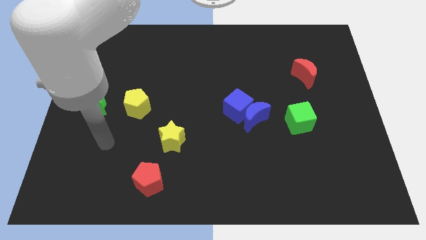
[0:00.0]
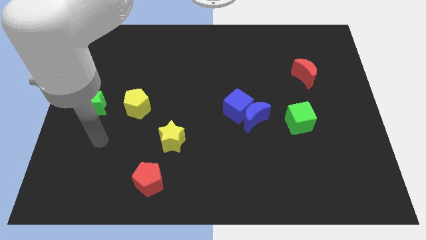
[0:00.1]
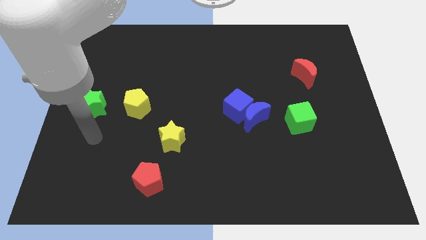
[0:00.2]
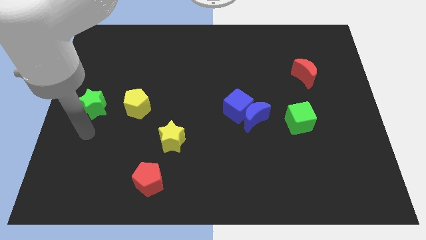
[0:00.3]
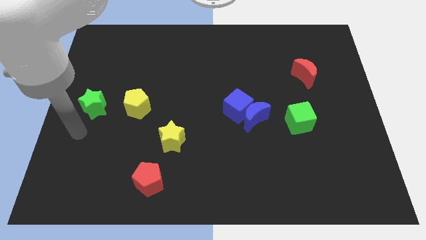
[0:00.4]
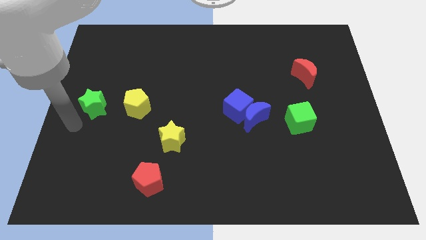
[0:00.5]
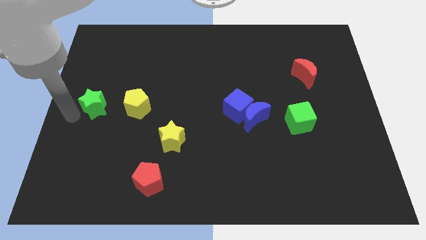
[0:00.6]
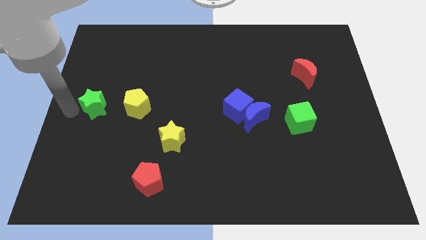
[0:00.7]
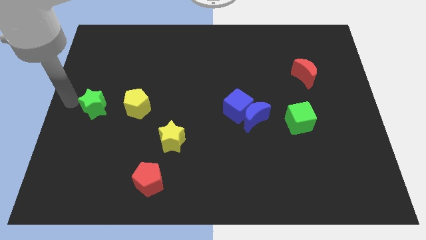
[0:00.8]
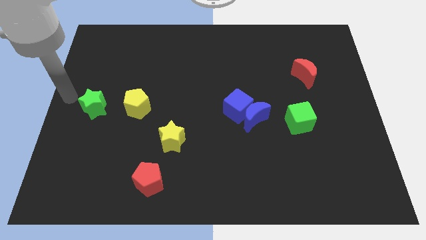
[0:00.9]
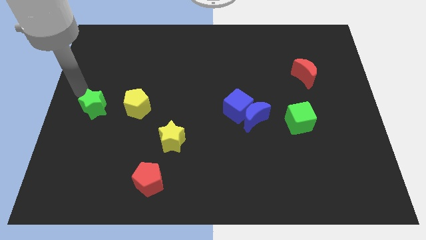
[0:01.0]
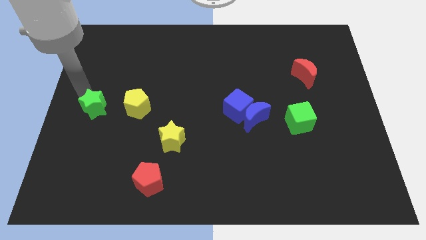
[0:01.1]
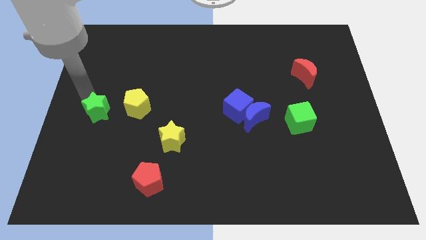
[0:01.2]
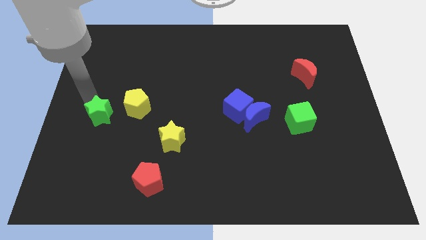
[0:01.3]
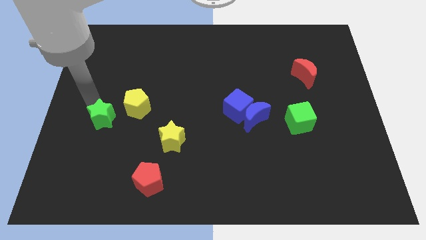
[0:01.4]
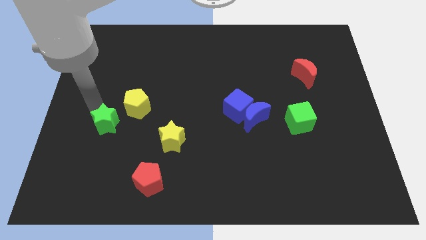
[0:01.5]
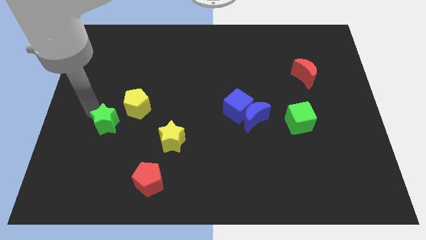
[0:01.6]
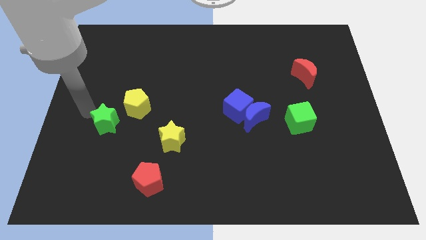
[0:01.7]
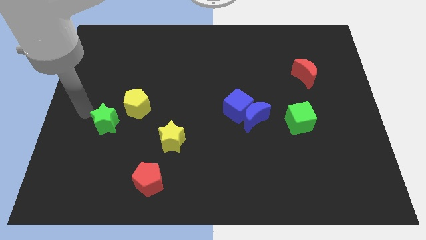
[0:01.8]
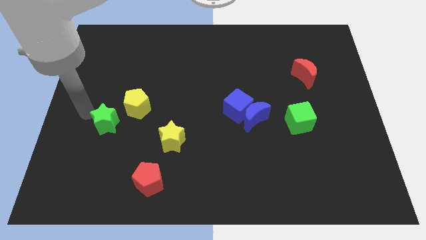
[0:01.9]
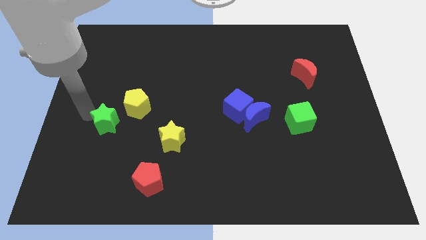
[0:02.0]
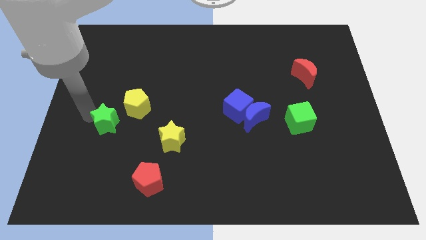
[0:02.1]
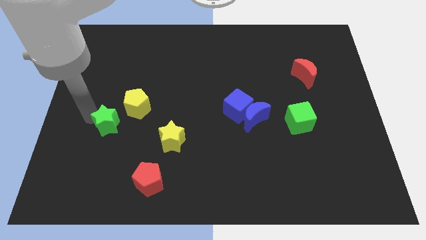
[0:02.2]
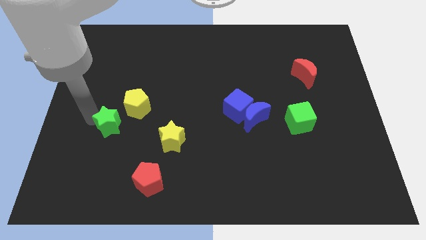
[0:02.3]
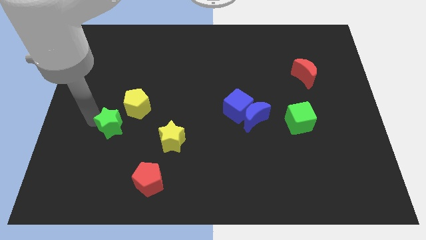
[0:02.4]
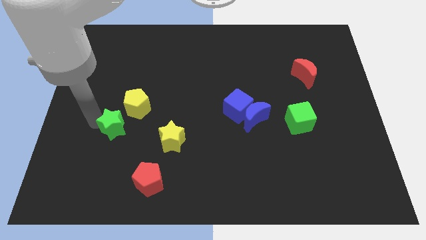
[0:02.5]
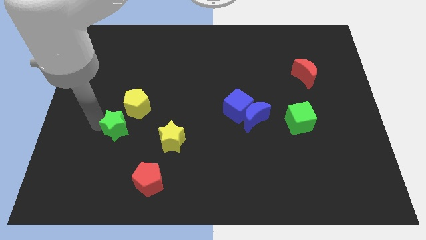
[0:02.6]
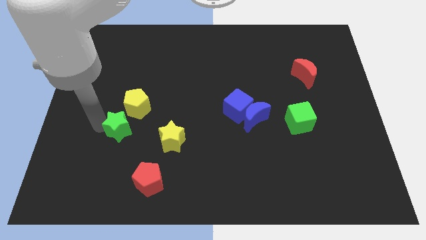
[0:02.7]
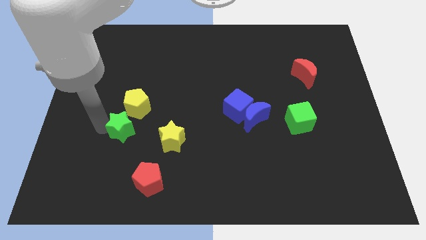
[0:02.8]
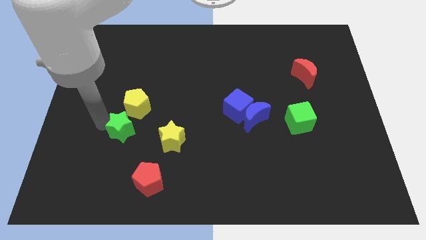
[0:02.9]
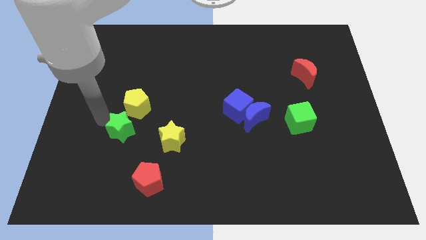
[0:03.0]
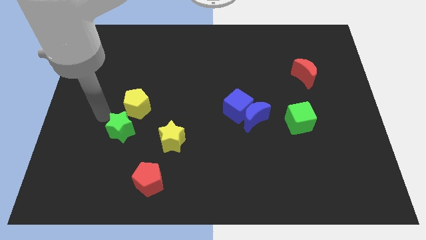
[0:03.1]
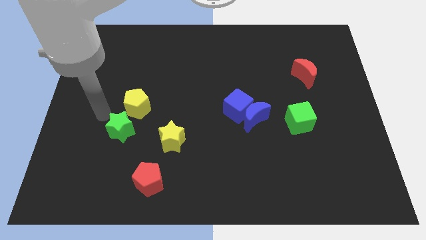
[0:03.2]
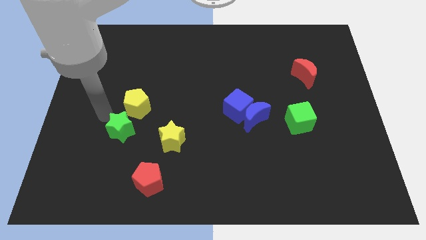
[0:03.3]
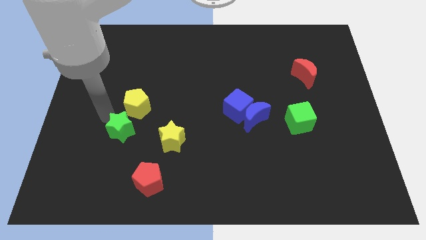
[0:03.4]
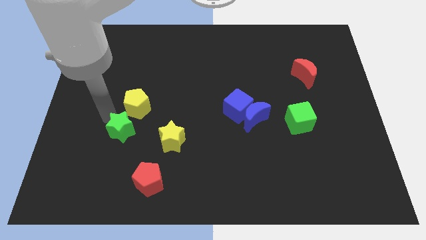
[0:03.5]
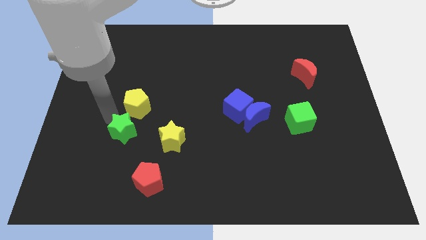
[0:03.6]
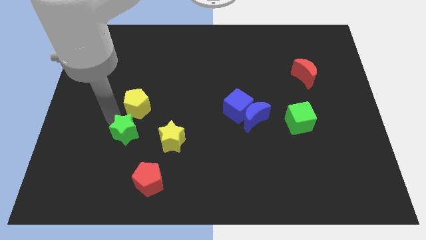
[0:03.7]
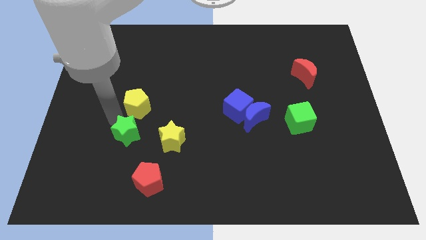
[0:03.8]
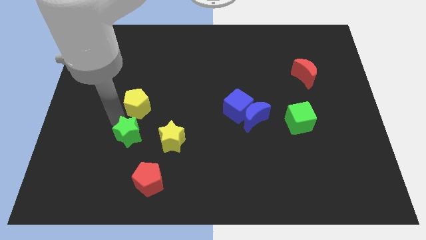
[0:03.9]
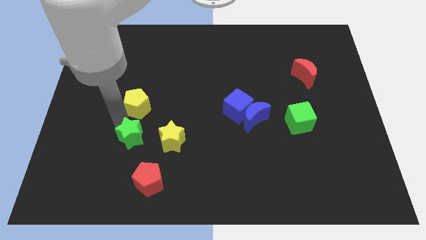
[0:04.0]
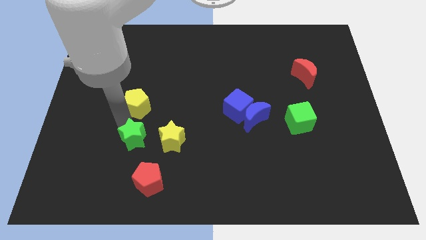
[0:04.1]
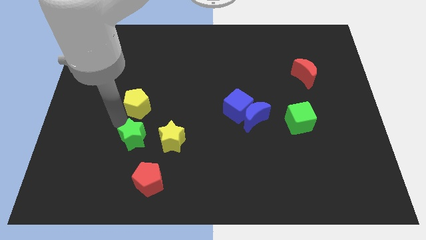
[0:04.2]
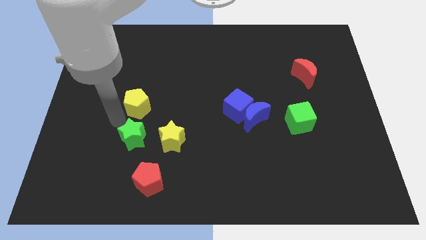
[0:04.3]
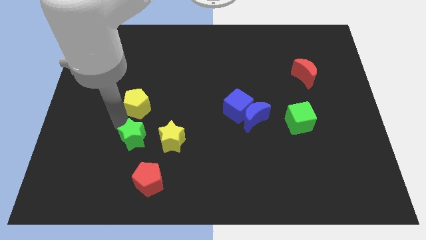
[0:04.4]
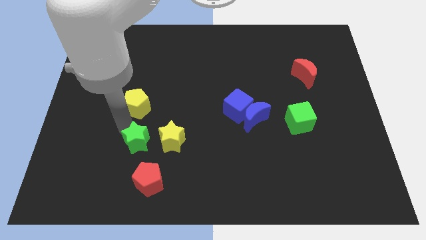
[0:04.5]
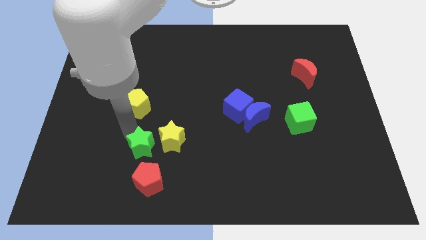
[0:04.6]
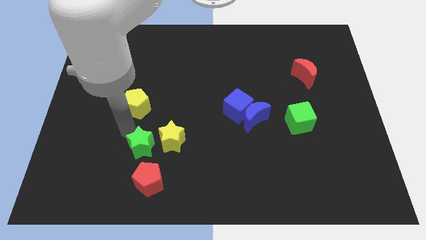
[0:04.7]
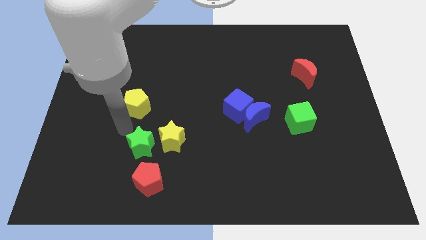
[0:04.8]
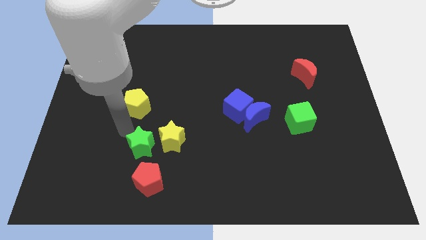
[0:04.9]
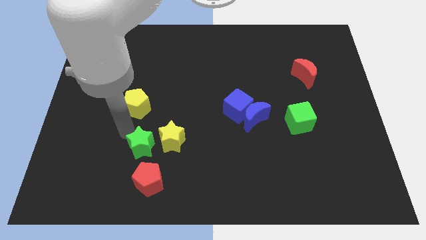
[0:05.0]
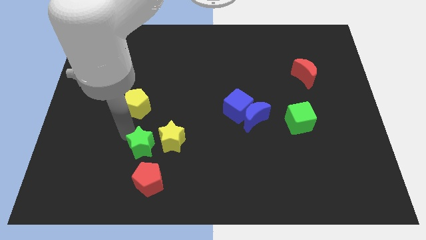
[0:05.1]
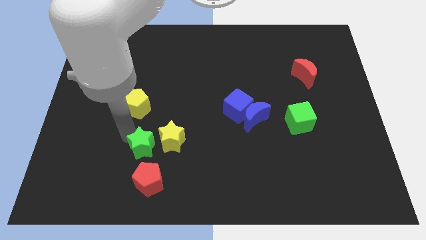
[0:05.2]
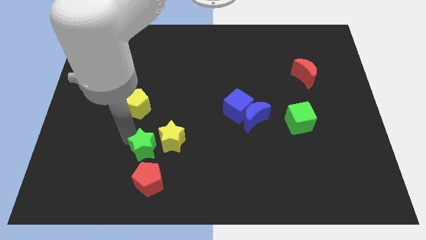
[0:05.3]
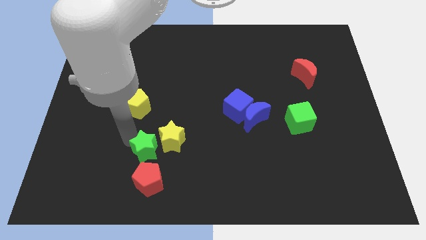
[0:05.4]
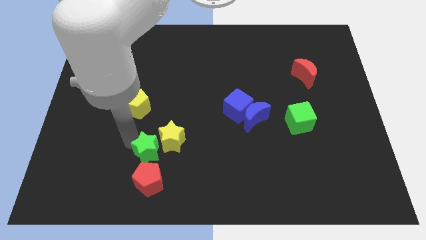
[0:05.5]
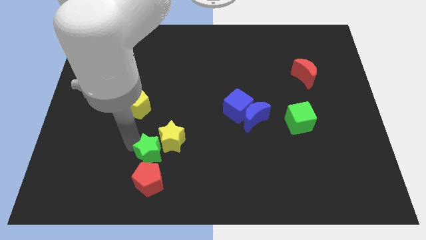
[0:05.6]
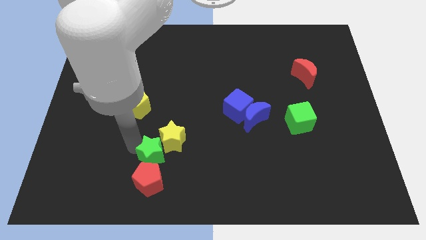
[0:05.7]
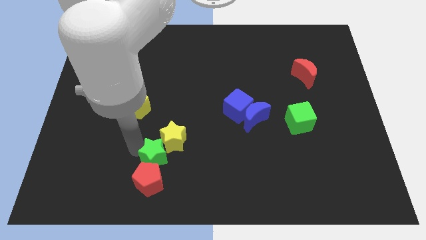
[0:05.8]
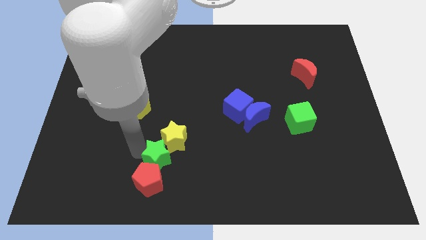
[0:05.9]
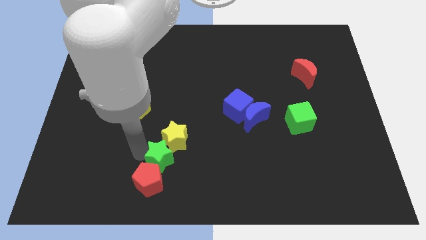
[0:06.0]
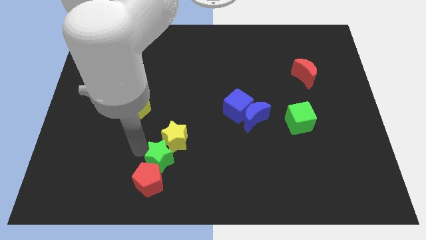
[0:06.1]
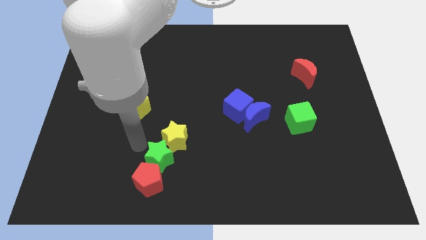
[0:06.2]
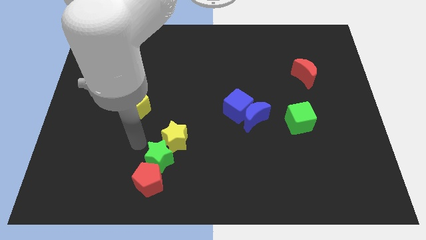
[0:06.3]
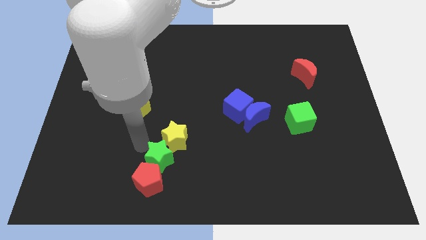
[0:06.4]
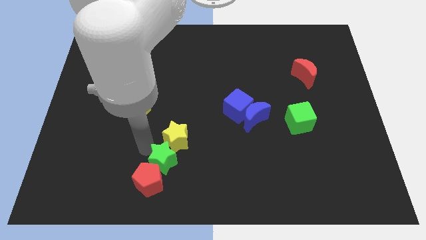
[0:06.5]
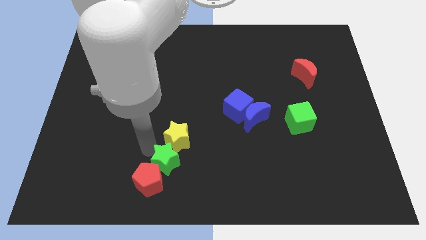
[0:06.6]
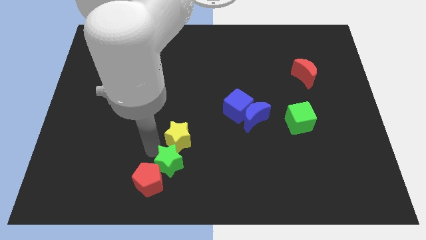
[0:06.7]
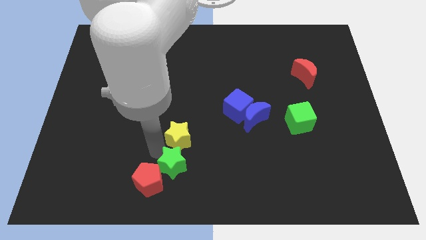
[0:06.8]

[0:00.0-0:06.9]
move the green star to the bottom side
